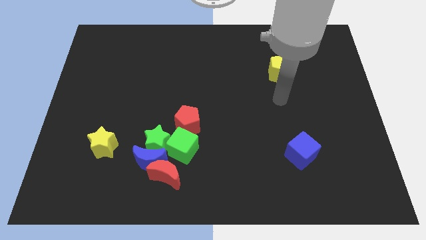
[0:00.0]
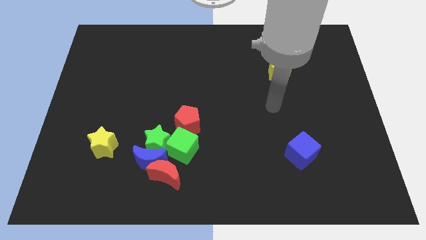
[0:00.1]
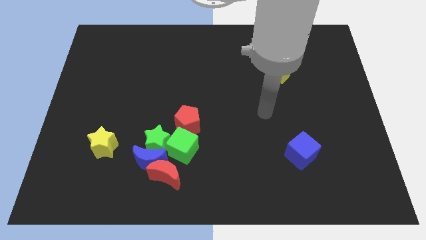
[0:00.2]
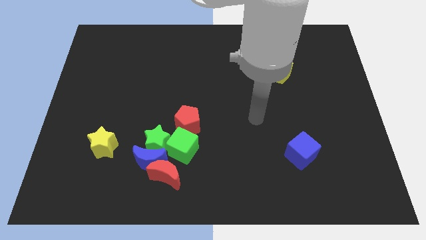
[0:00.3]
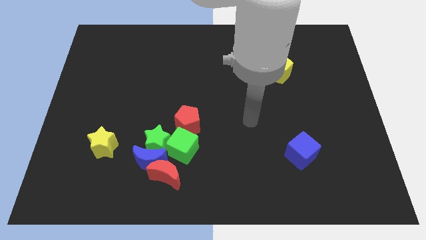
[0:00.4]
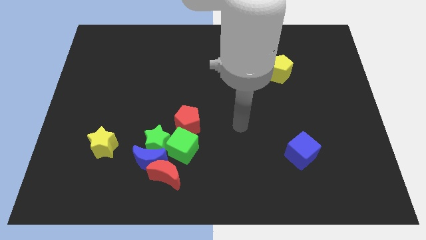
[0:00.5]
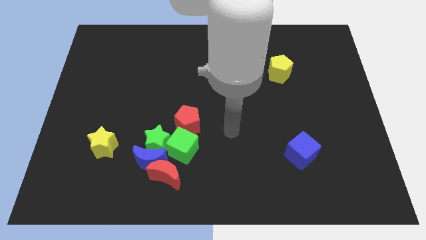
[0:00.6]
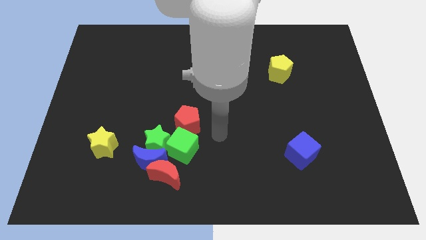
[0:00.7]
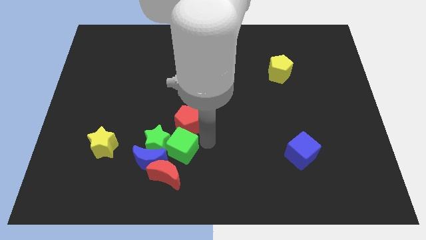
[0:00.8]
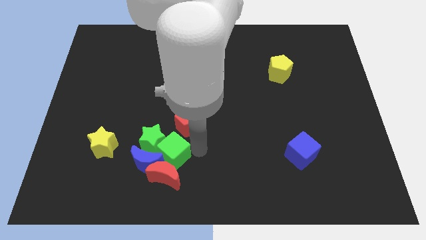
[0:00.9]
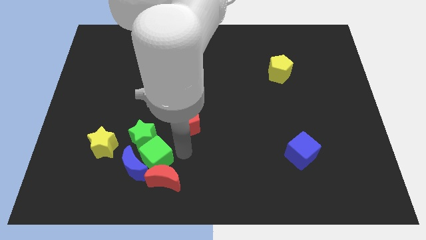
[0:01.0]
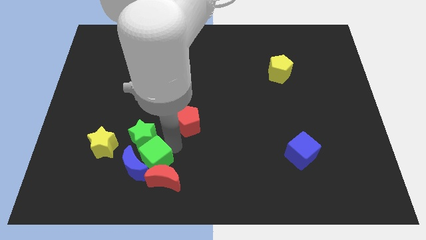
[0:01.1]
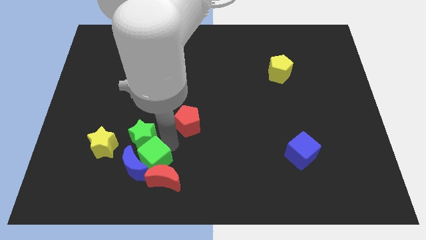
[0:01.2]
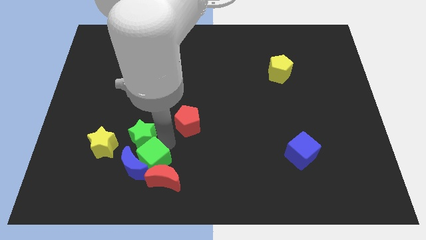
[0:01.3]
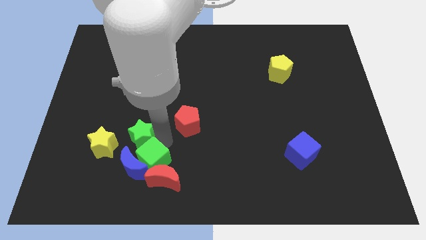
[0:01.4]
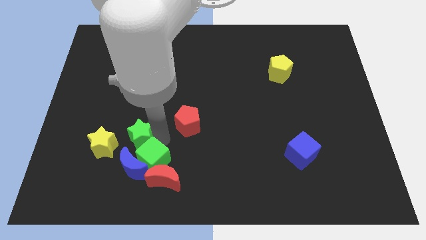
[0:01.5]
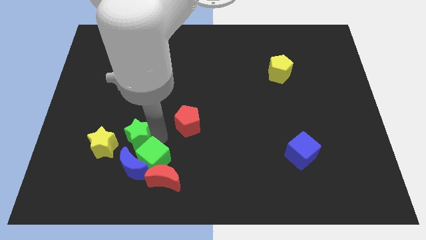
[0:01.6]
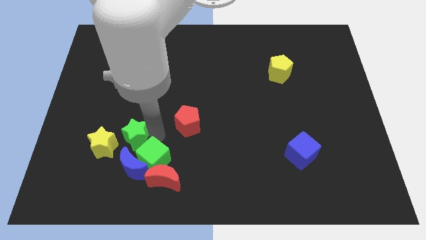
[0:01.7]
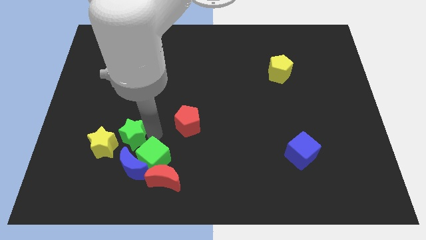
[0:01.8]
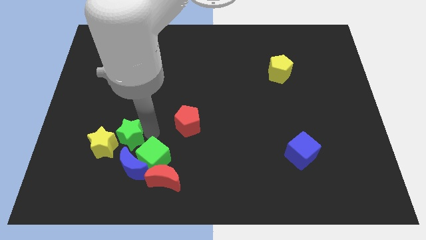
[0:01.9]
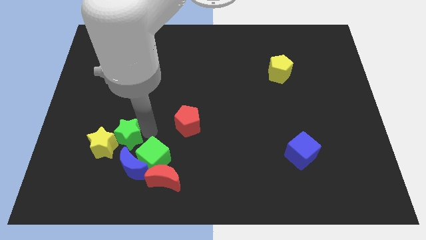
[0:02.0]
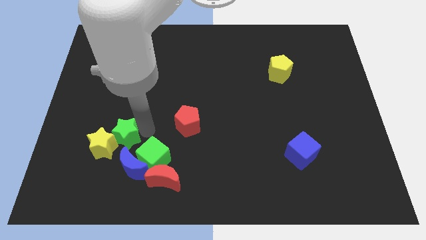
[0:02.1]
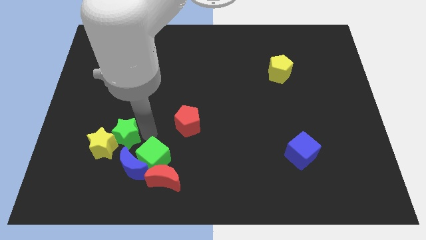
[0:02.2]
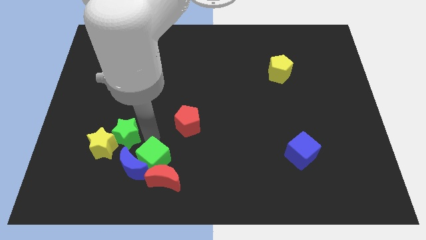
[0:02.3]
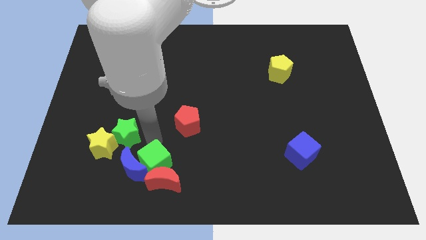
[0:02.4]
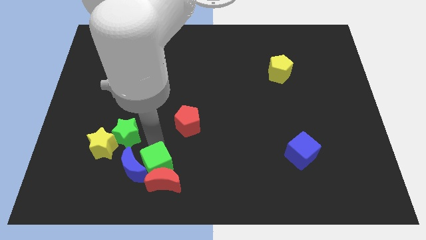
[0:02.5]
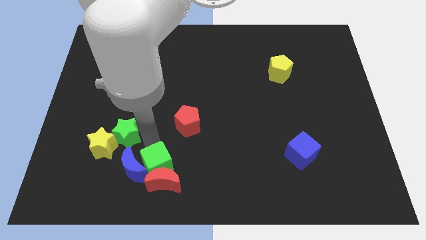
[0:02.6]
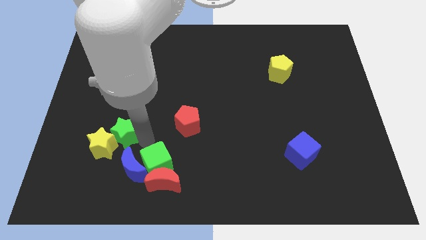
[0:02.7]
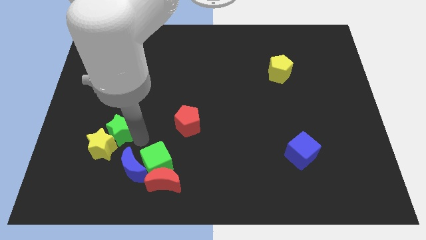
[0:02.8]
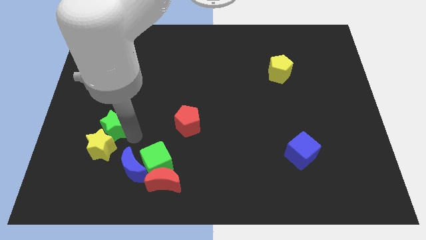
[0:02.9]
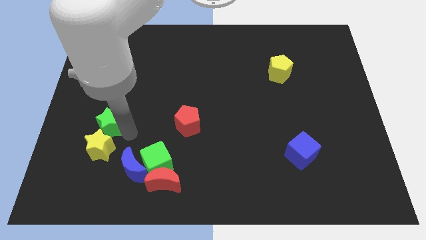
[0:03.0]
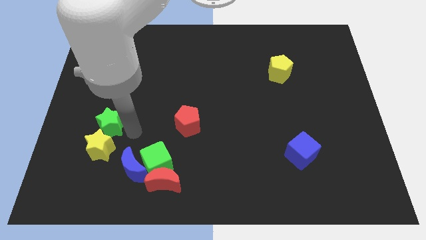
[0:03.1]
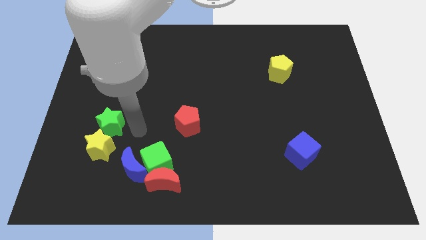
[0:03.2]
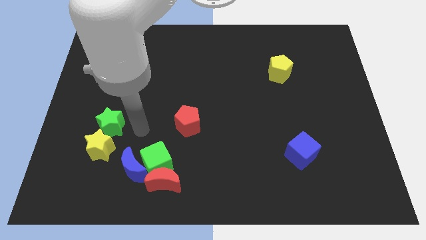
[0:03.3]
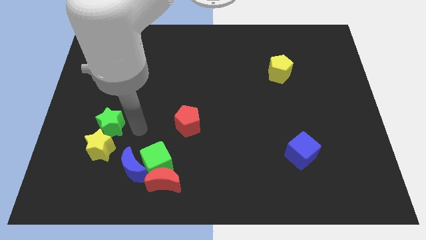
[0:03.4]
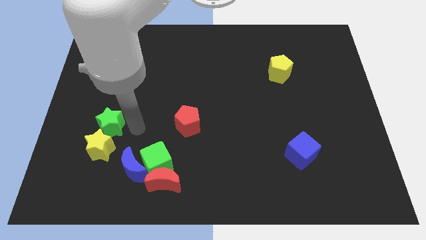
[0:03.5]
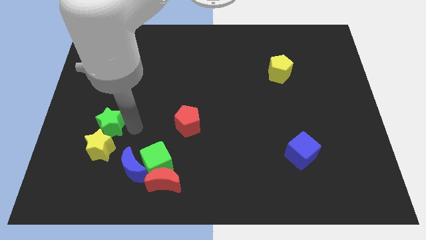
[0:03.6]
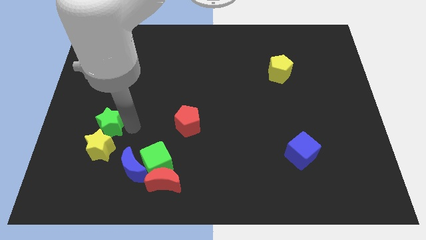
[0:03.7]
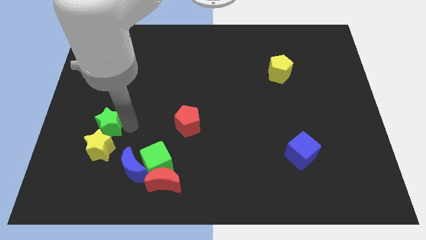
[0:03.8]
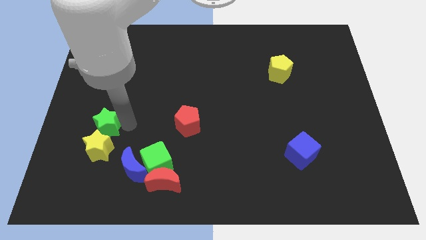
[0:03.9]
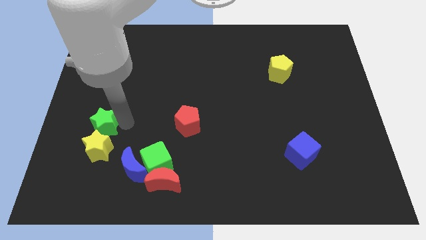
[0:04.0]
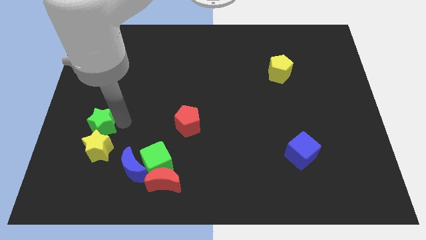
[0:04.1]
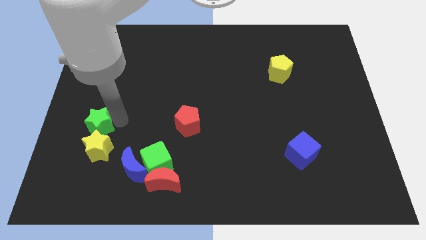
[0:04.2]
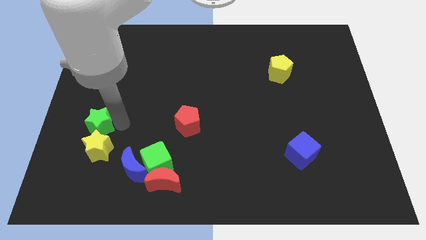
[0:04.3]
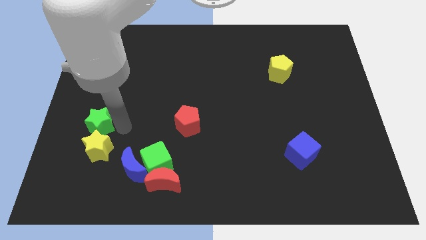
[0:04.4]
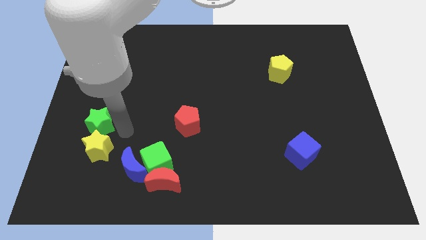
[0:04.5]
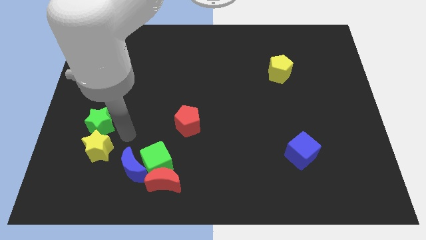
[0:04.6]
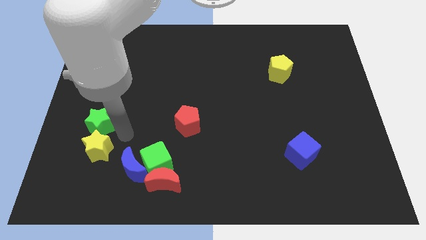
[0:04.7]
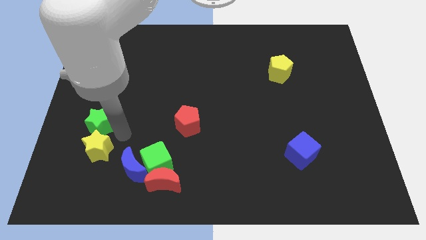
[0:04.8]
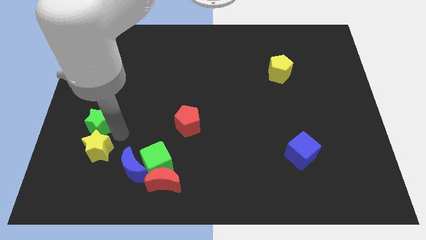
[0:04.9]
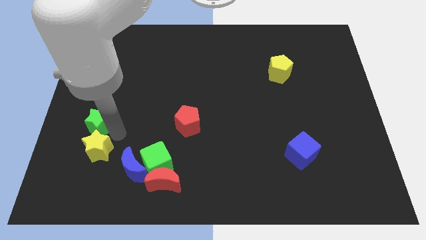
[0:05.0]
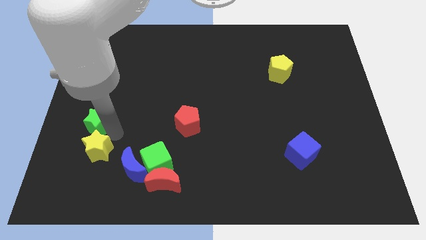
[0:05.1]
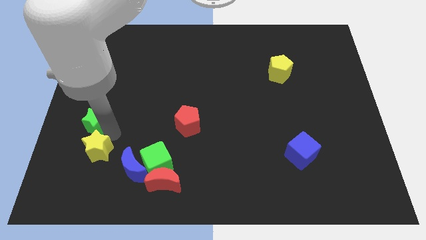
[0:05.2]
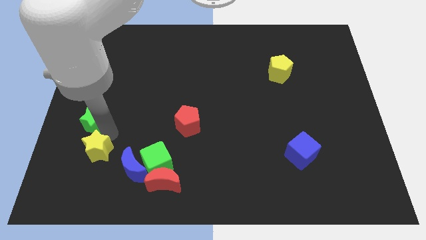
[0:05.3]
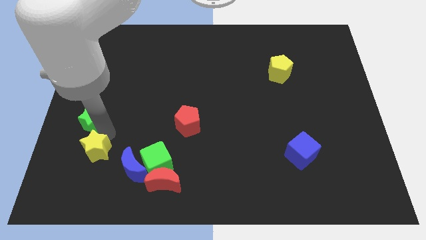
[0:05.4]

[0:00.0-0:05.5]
move the green star to the left side

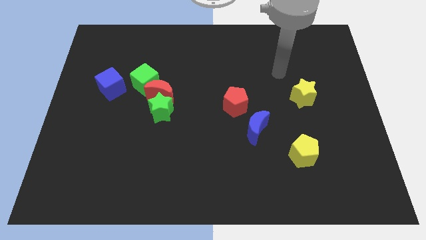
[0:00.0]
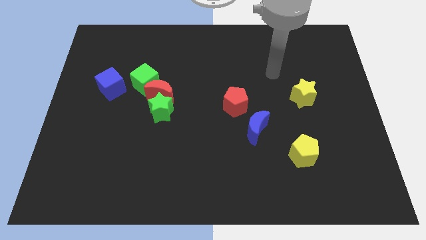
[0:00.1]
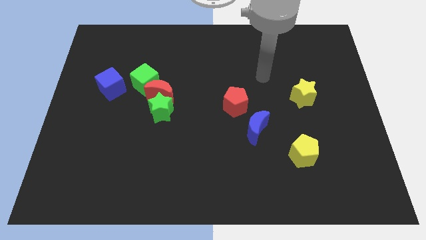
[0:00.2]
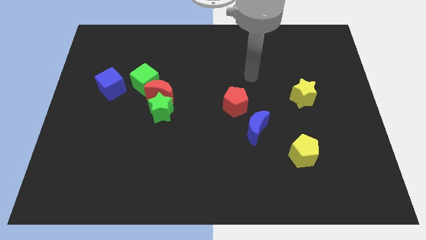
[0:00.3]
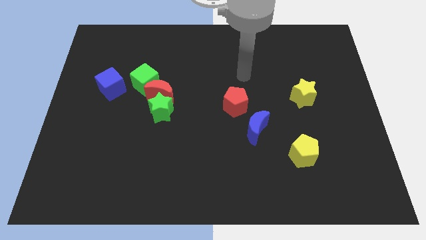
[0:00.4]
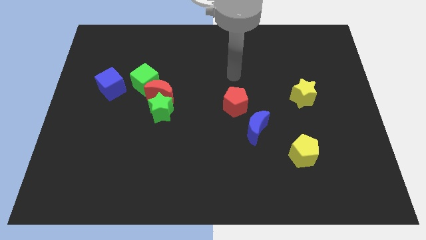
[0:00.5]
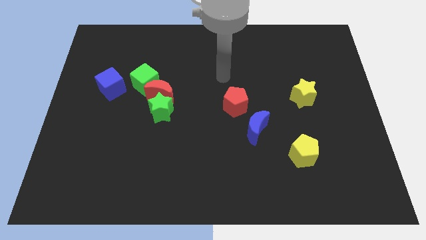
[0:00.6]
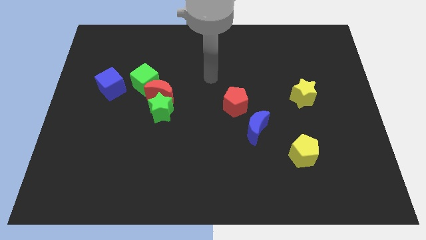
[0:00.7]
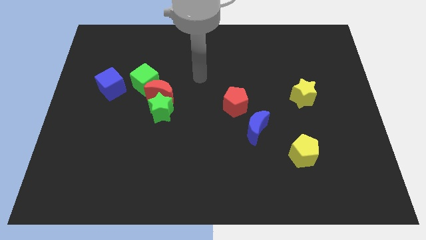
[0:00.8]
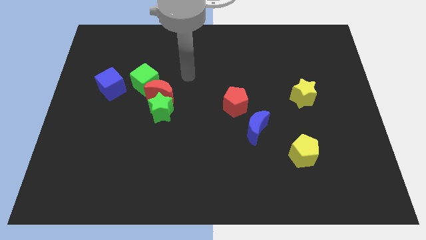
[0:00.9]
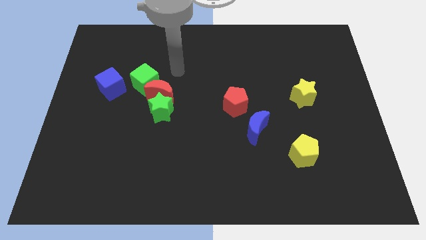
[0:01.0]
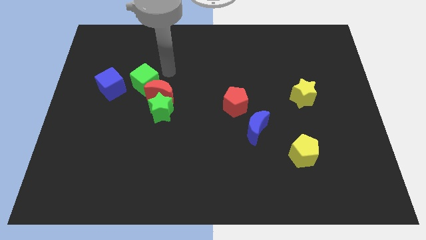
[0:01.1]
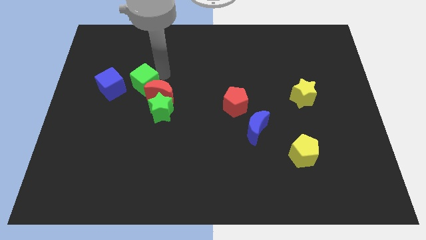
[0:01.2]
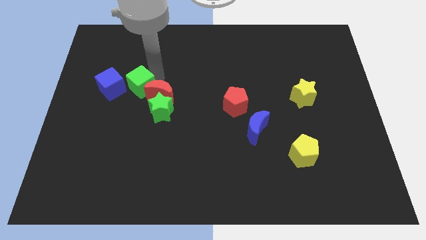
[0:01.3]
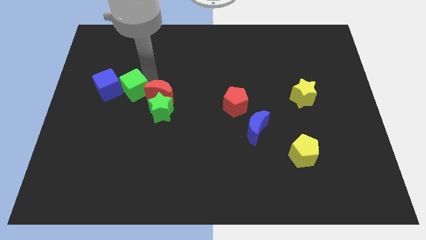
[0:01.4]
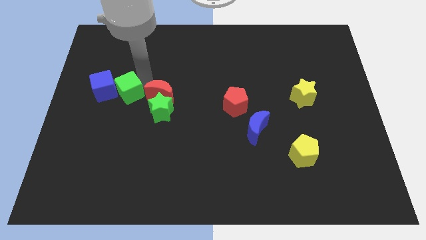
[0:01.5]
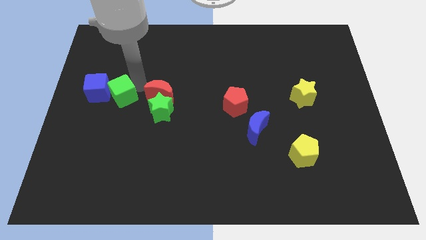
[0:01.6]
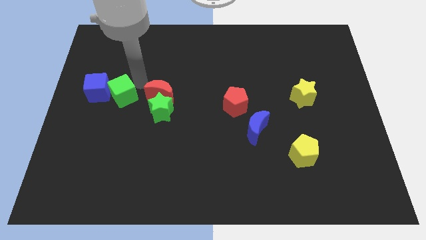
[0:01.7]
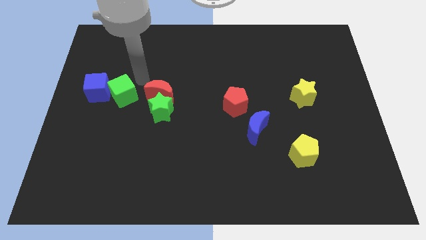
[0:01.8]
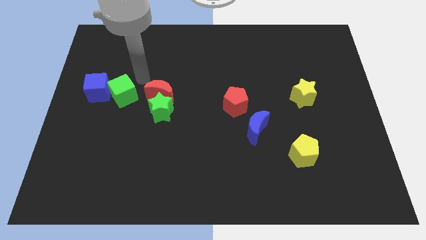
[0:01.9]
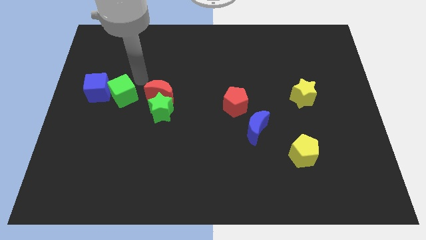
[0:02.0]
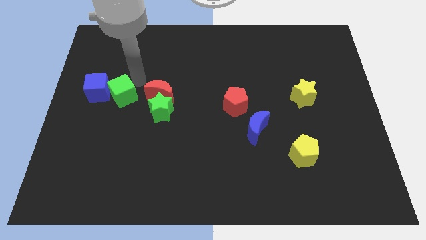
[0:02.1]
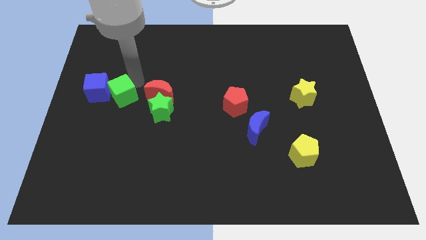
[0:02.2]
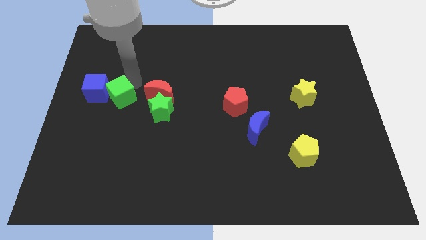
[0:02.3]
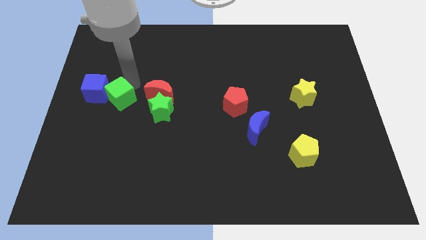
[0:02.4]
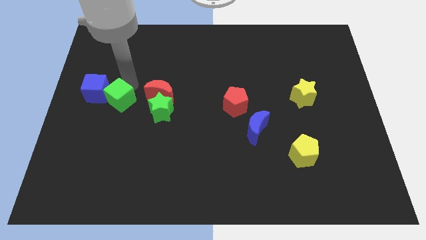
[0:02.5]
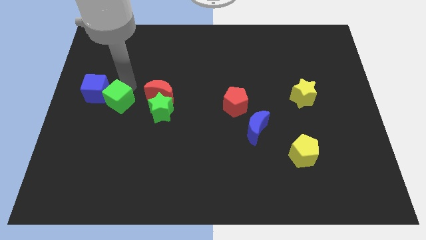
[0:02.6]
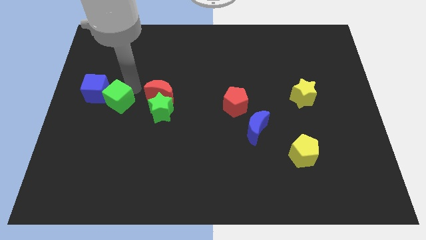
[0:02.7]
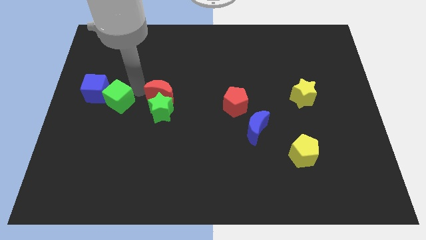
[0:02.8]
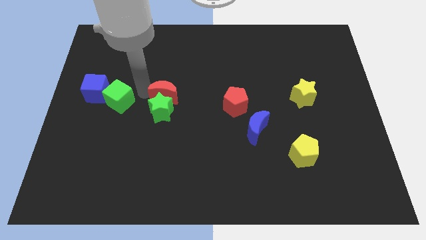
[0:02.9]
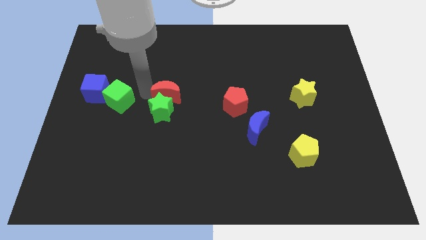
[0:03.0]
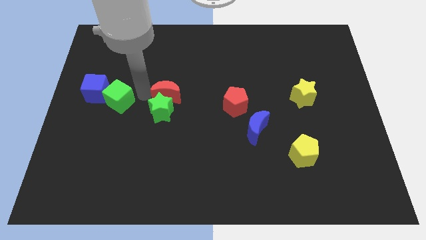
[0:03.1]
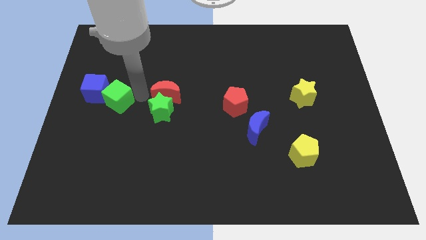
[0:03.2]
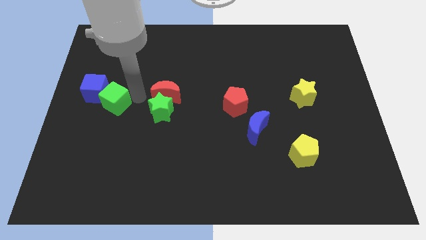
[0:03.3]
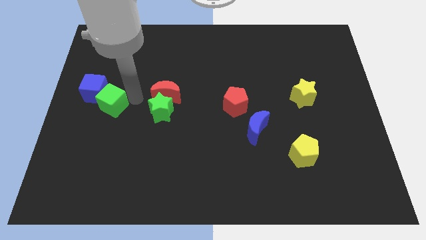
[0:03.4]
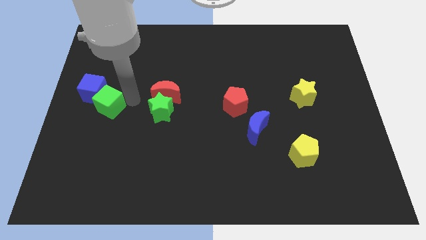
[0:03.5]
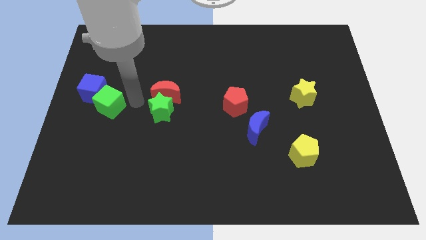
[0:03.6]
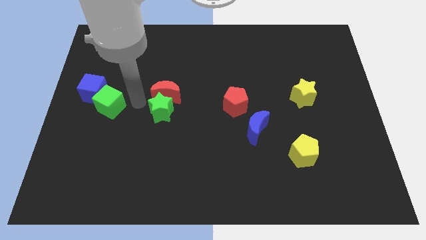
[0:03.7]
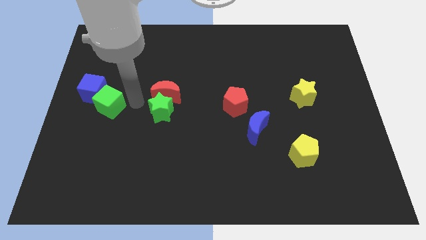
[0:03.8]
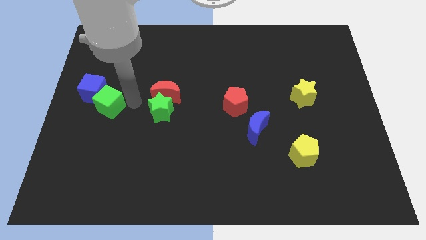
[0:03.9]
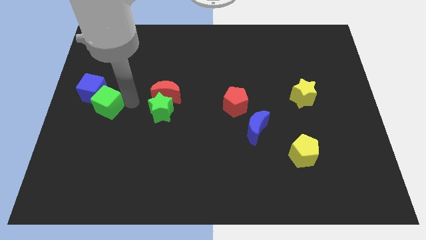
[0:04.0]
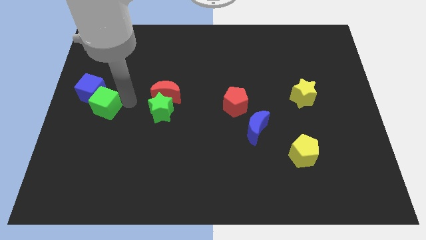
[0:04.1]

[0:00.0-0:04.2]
move the green cube to the center left
